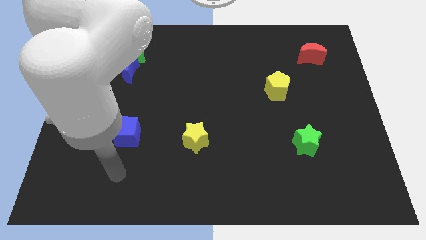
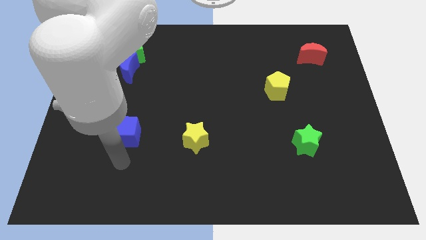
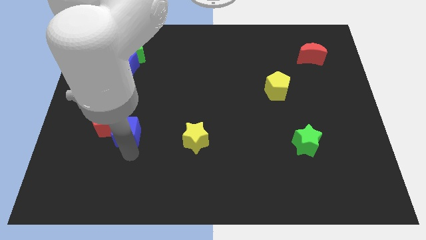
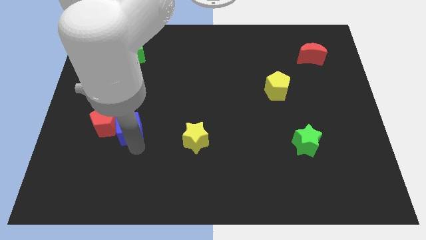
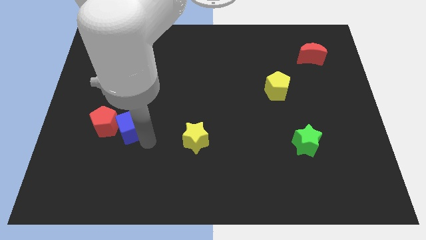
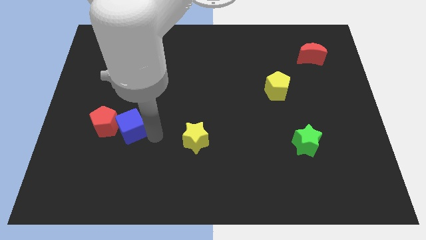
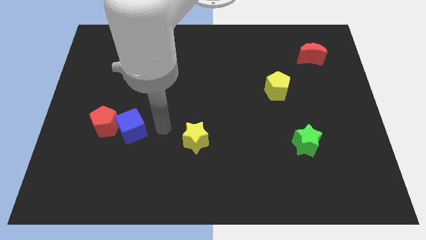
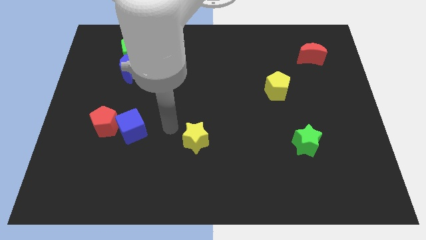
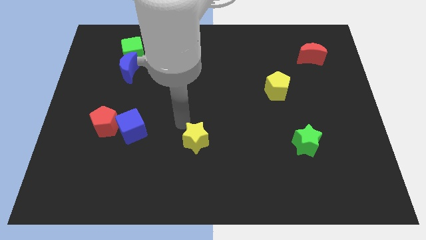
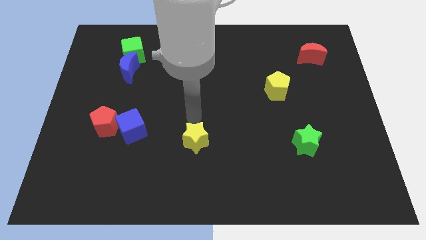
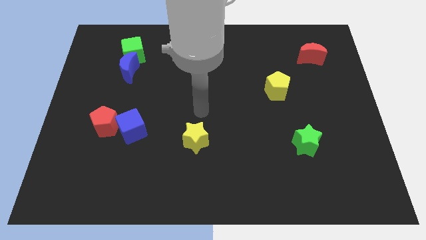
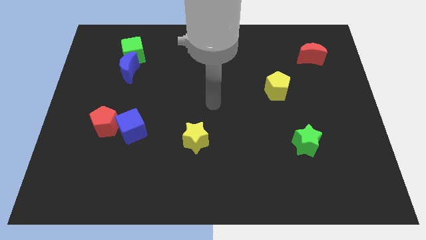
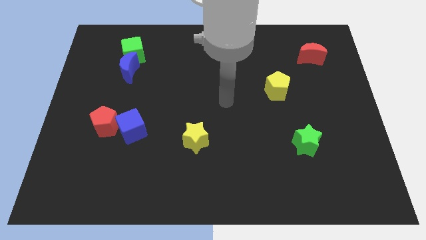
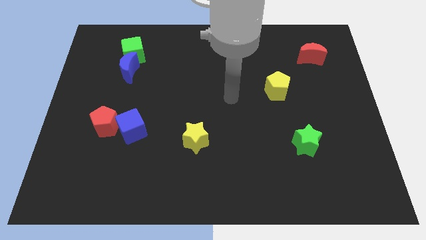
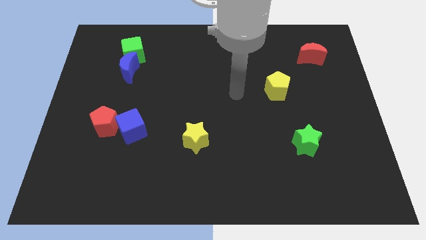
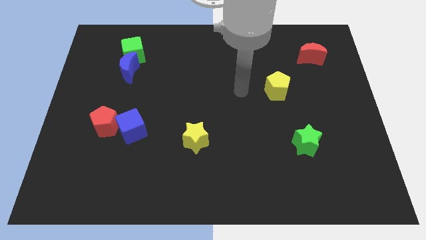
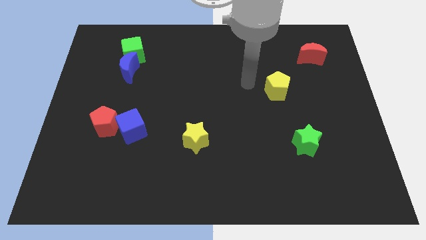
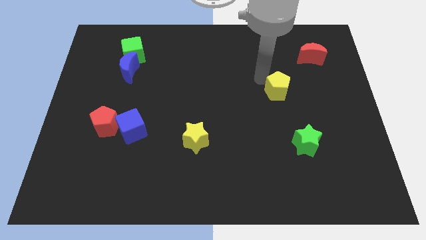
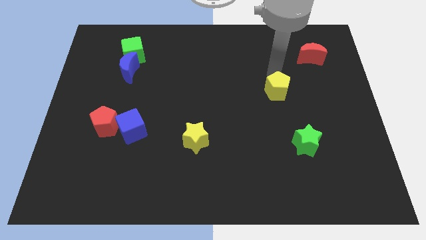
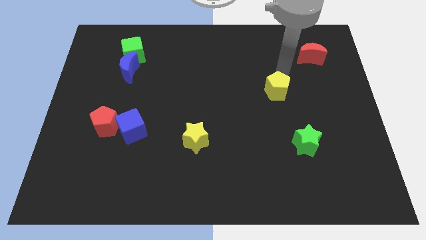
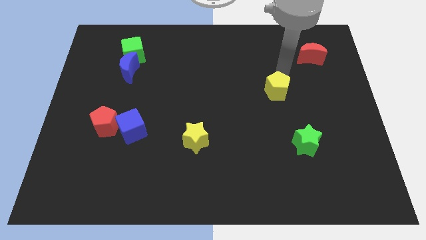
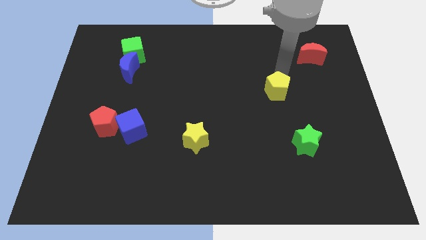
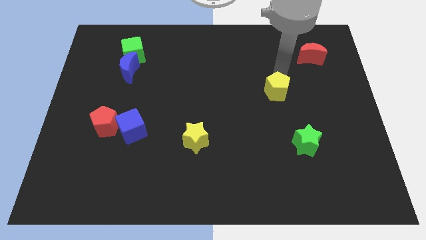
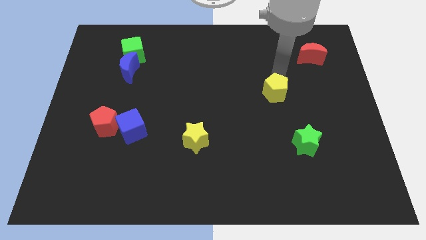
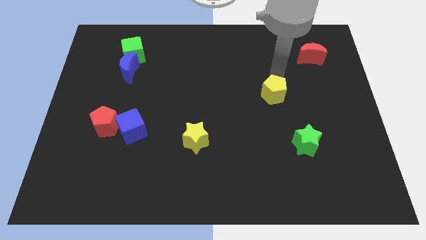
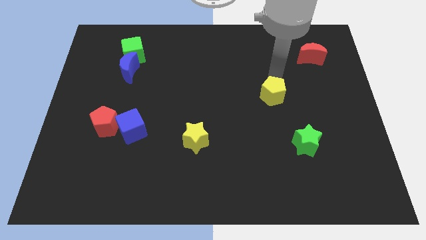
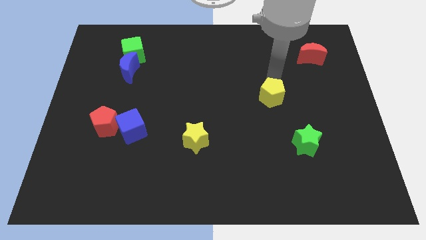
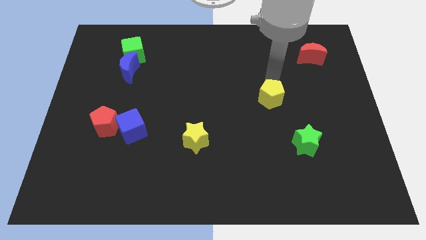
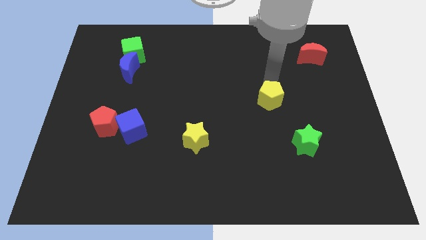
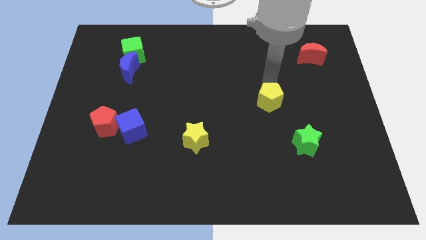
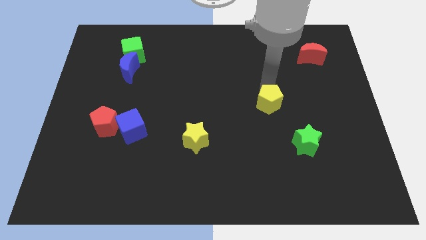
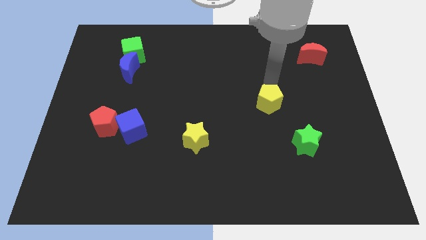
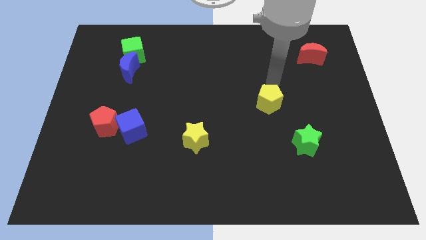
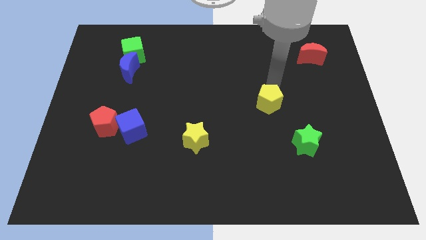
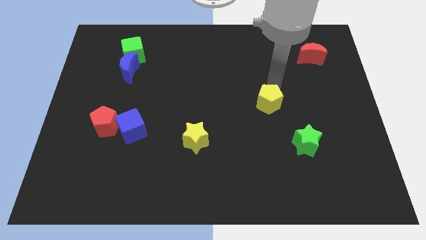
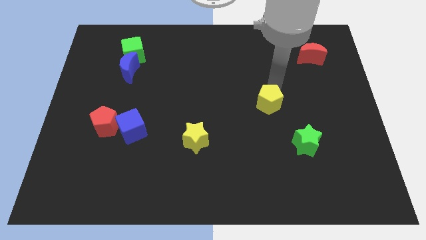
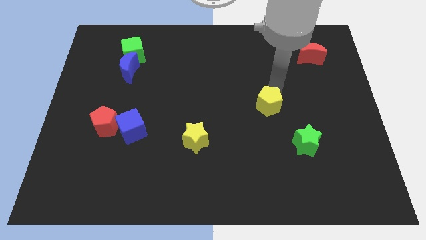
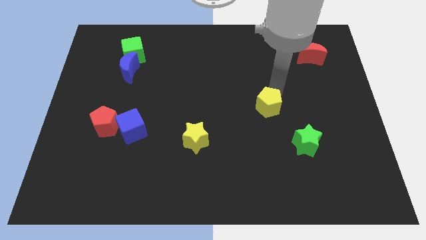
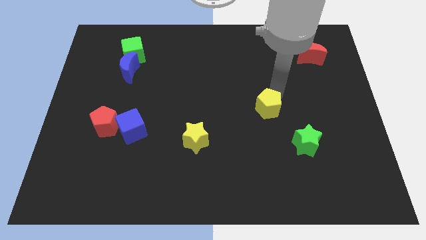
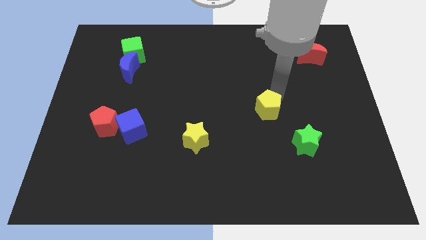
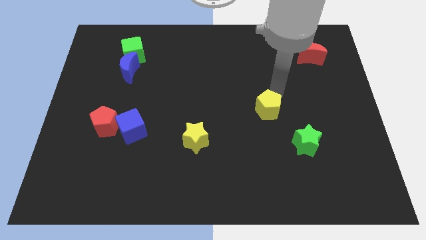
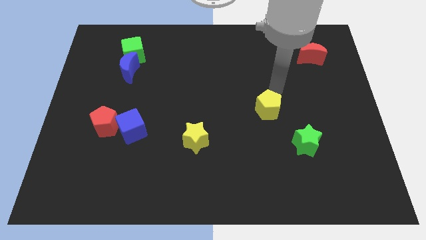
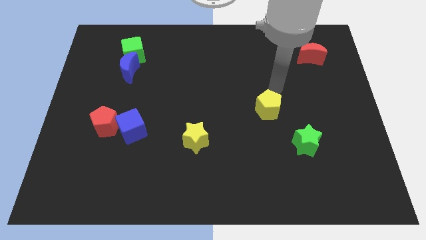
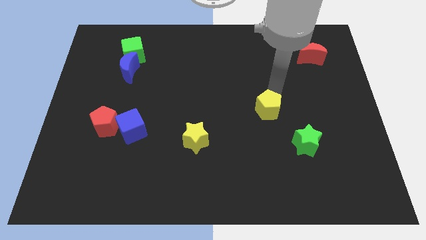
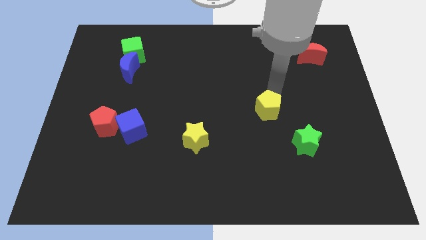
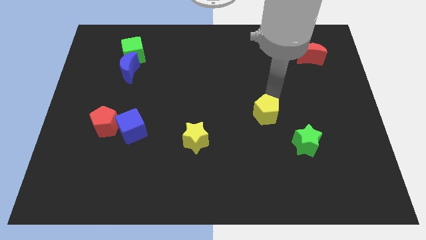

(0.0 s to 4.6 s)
move the yellow pentagon a little downwards

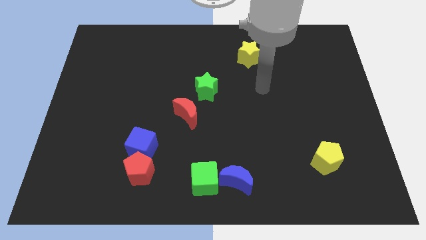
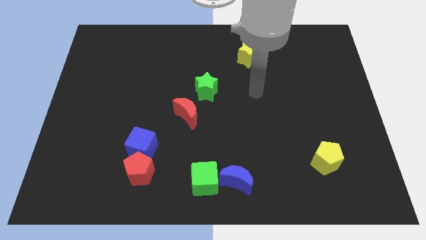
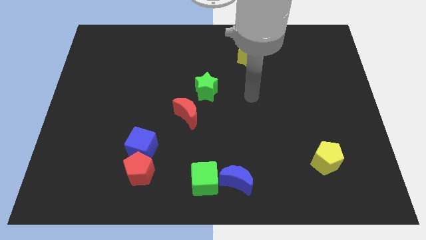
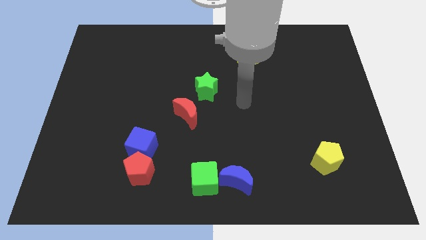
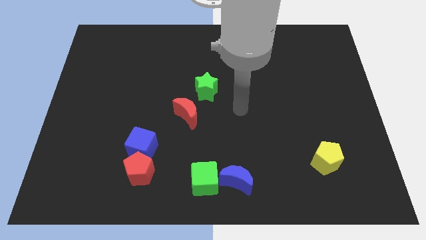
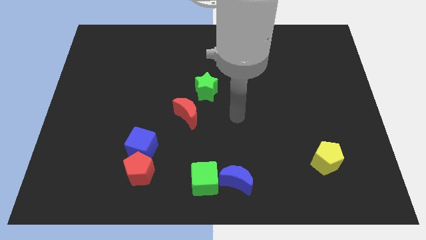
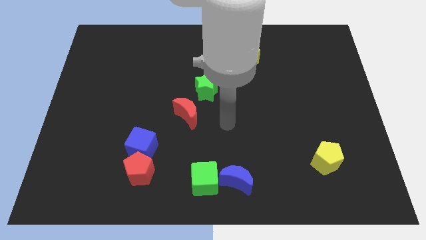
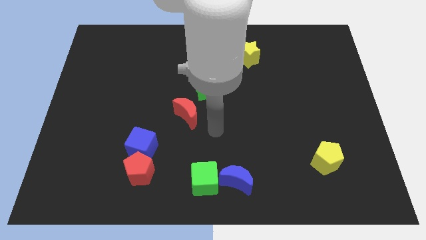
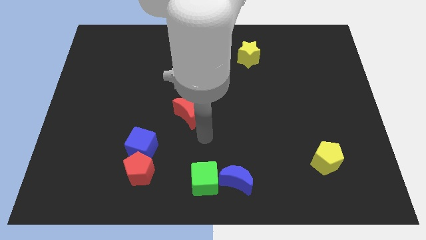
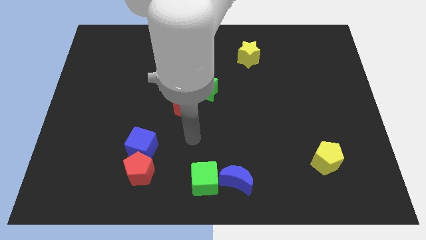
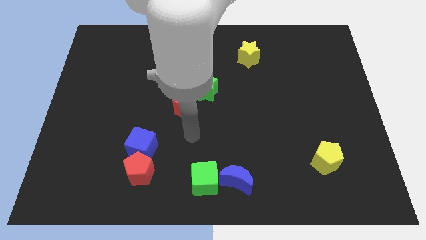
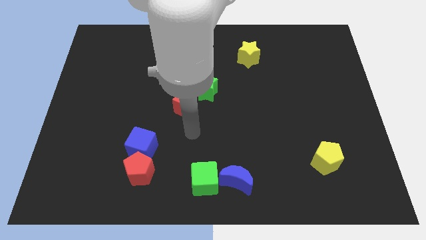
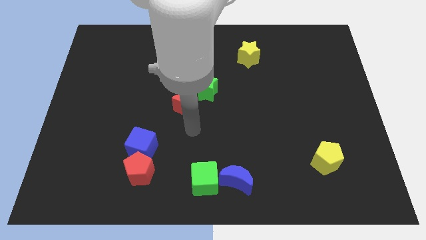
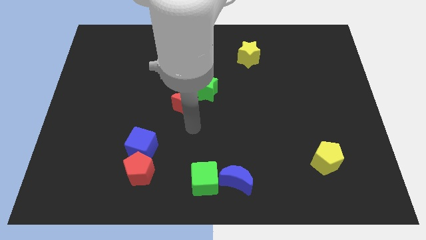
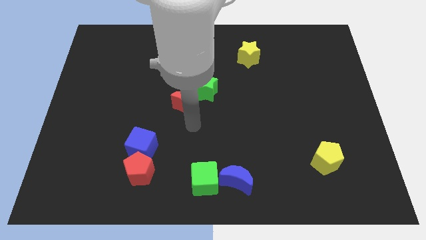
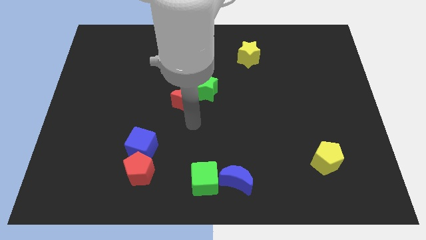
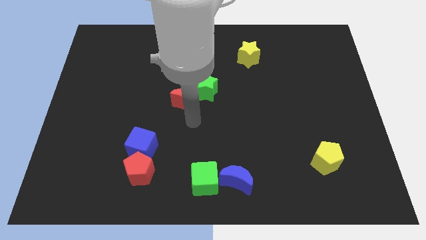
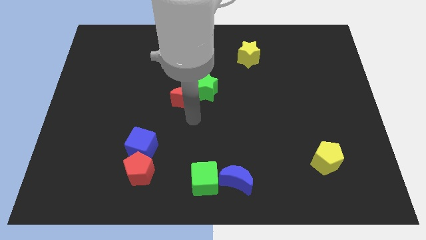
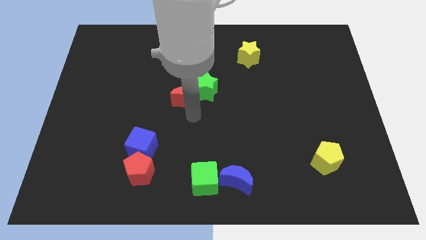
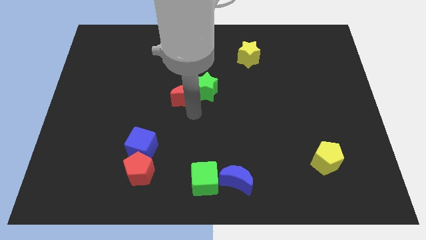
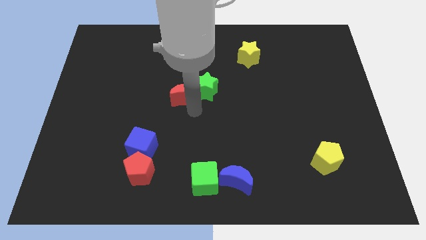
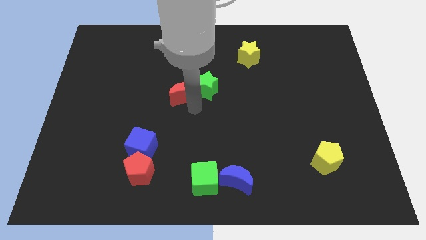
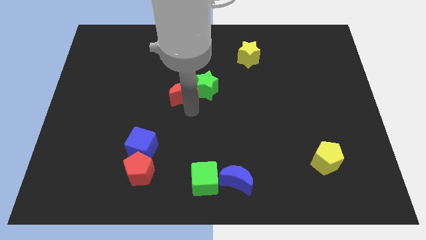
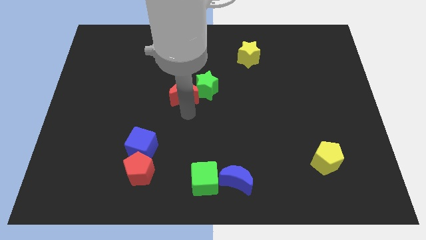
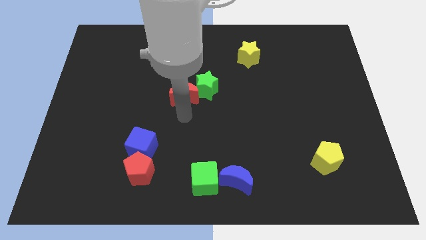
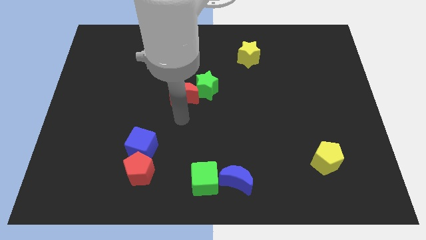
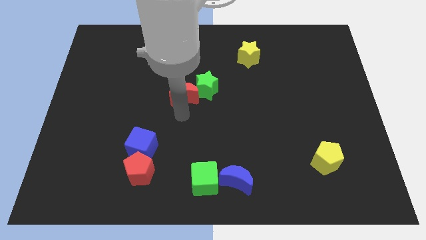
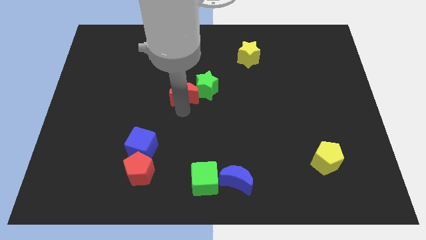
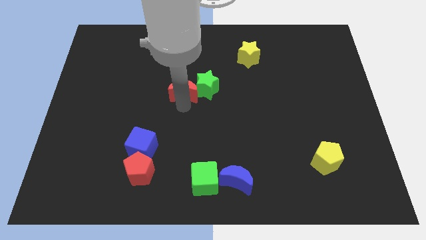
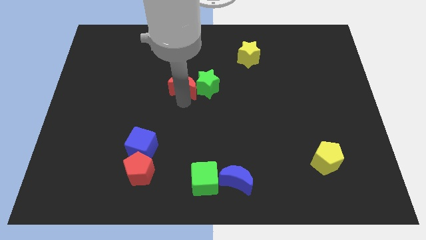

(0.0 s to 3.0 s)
slightly push the red moon up

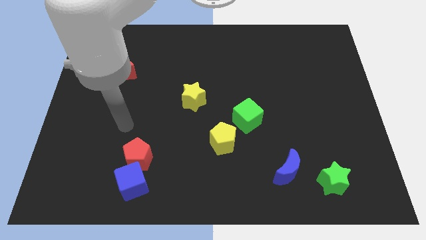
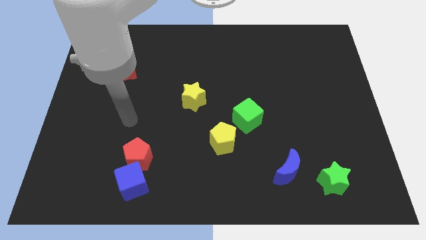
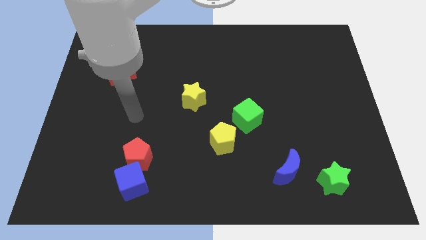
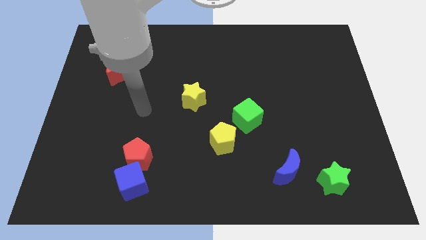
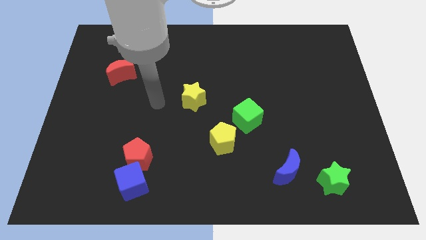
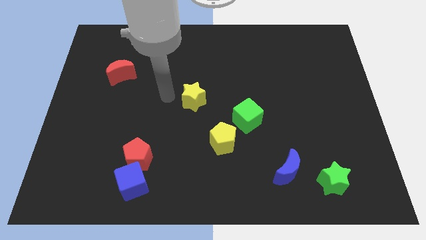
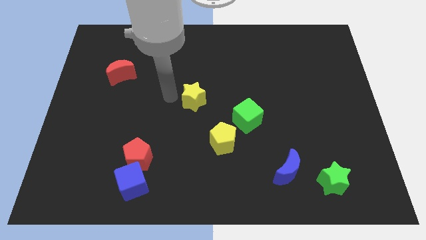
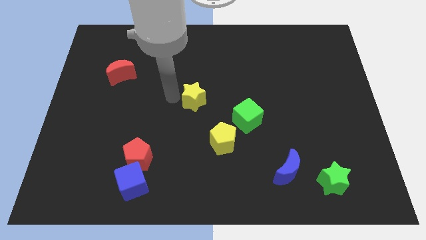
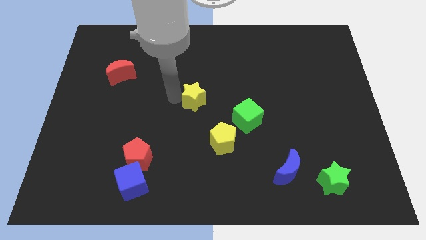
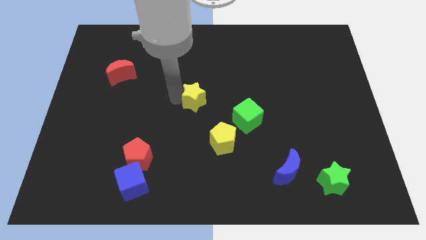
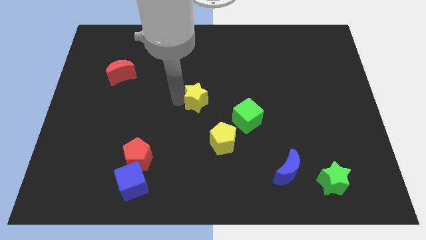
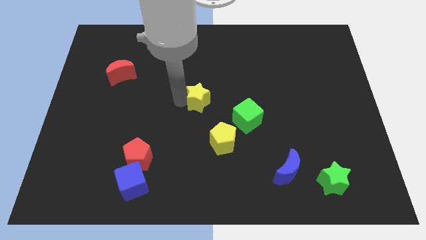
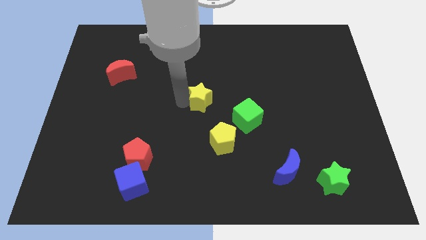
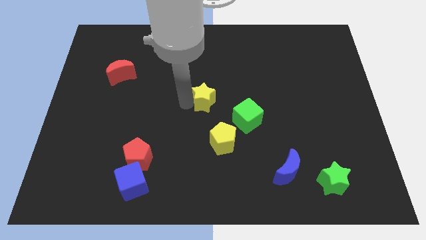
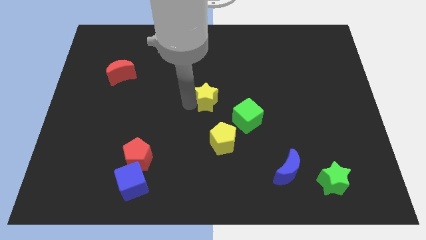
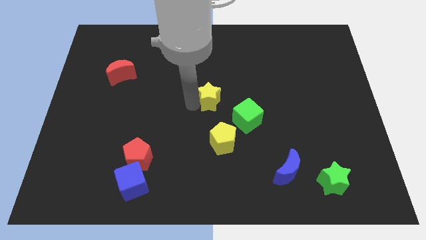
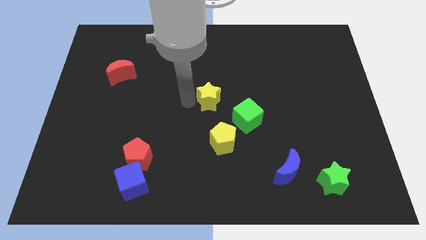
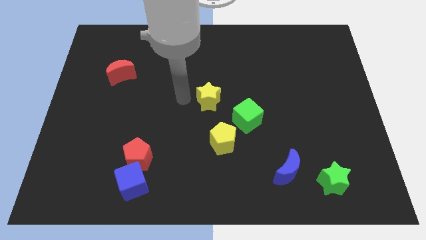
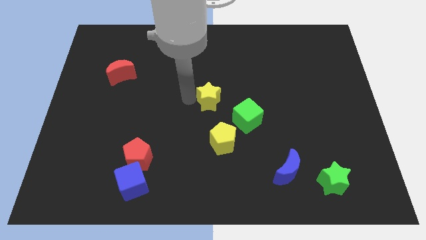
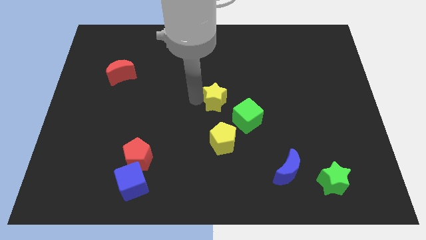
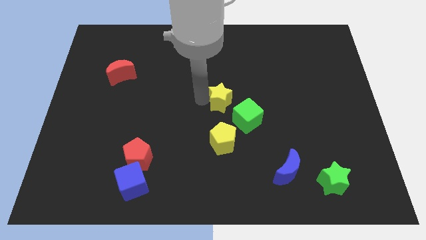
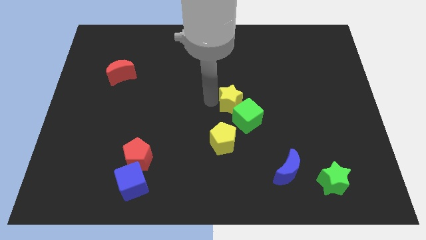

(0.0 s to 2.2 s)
slide the yellow star slightly right
